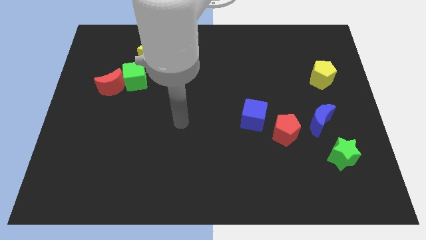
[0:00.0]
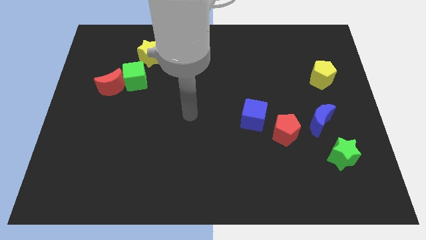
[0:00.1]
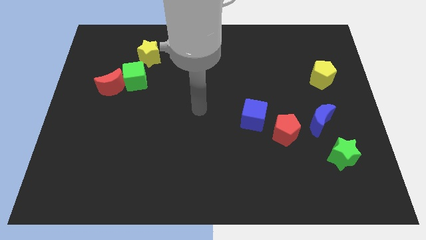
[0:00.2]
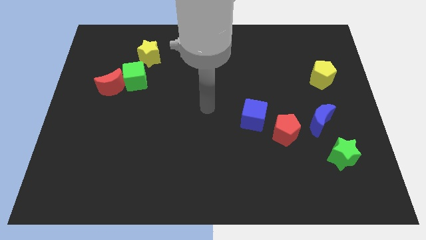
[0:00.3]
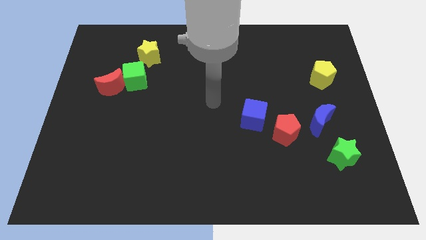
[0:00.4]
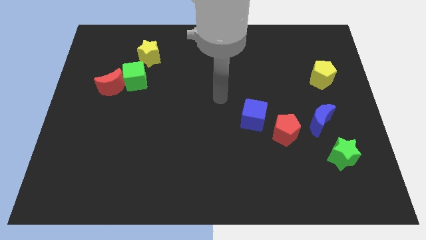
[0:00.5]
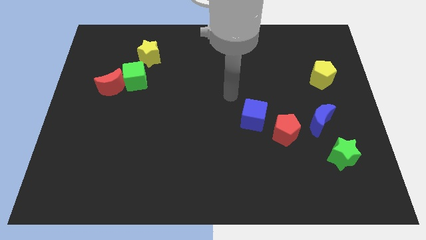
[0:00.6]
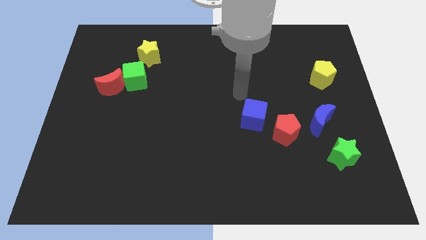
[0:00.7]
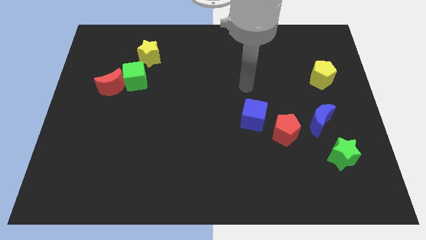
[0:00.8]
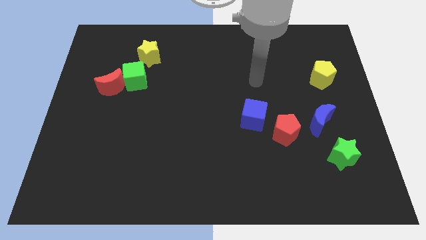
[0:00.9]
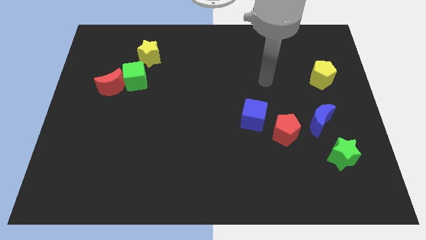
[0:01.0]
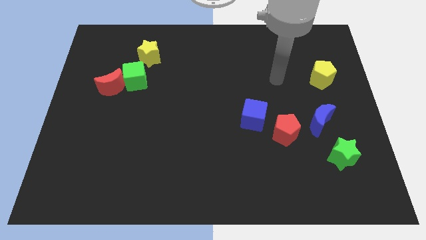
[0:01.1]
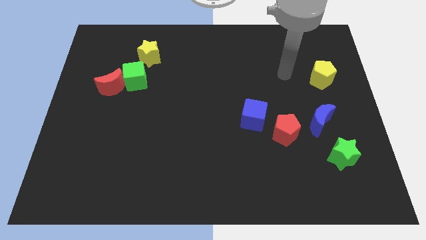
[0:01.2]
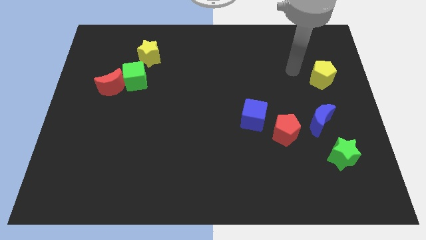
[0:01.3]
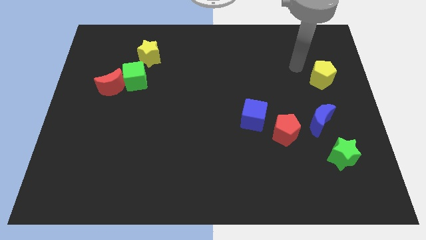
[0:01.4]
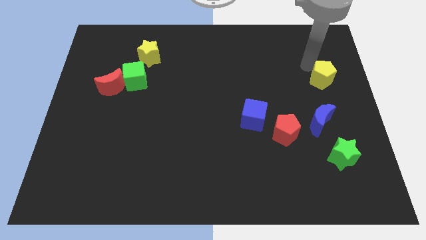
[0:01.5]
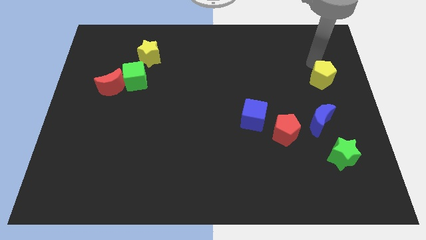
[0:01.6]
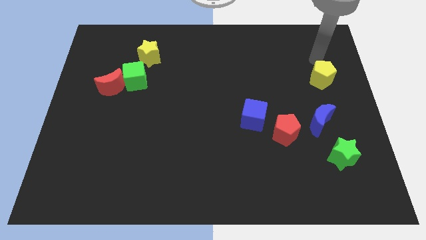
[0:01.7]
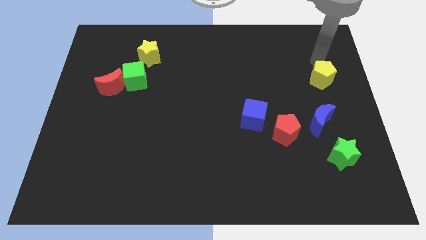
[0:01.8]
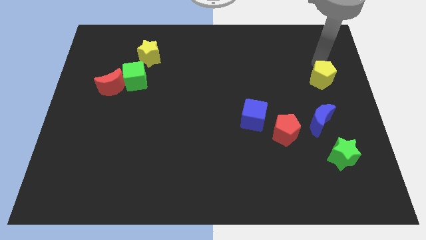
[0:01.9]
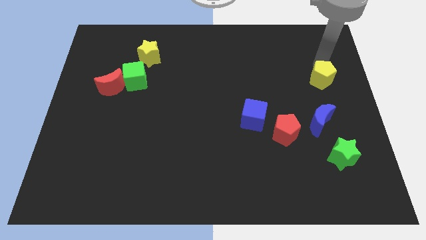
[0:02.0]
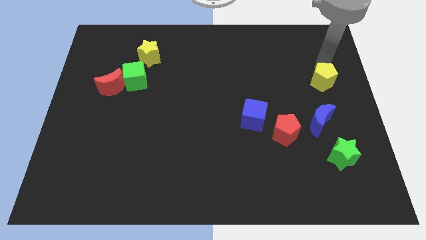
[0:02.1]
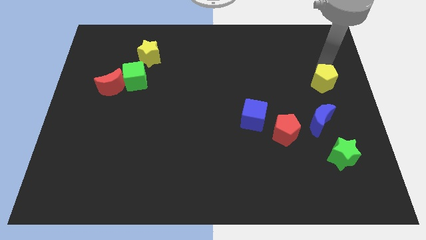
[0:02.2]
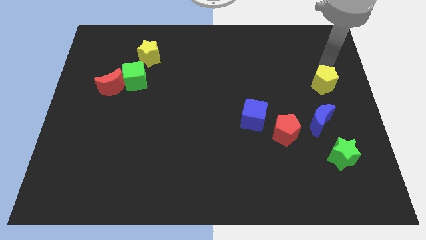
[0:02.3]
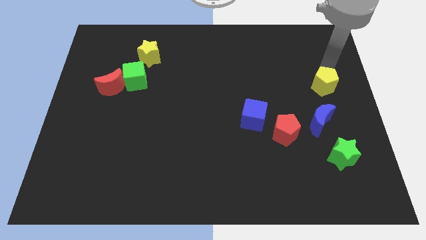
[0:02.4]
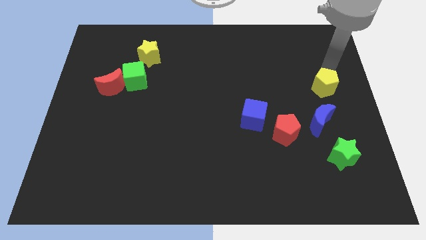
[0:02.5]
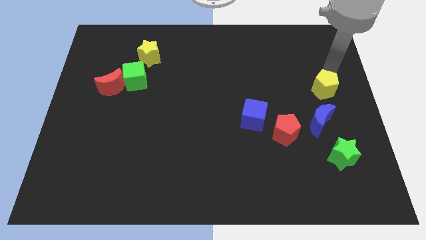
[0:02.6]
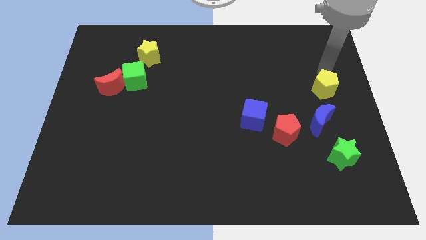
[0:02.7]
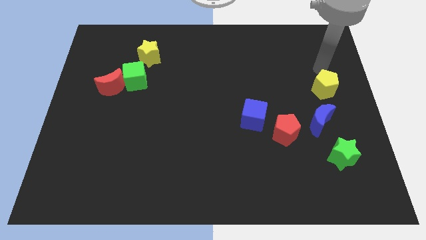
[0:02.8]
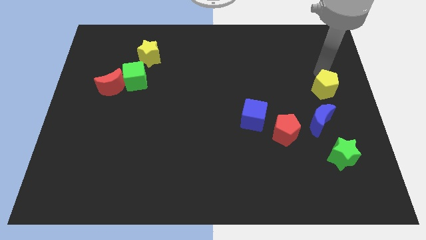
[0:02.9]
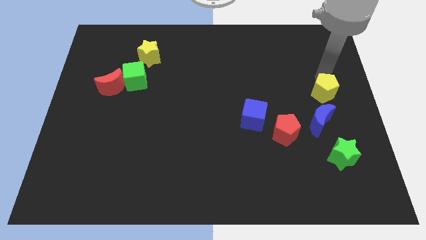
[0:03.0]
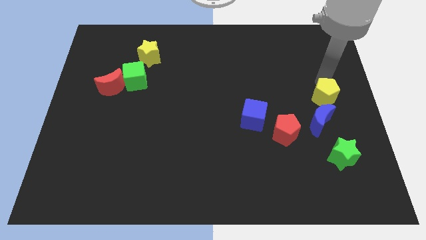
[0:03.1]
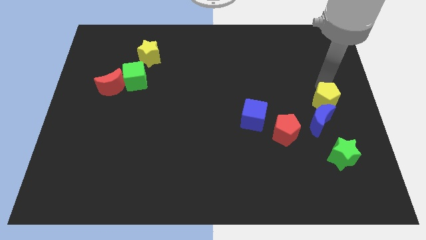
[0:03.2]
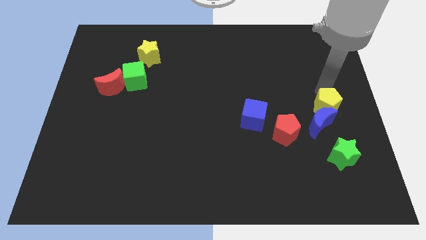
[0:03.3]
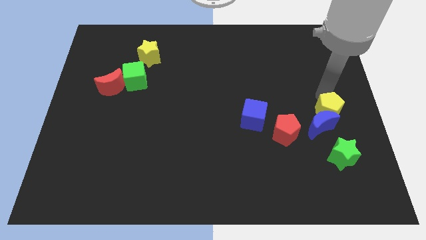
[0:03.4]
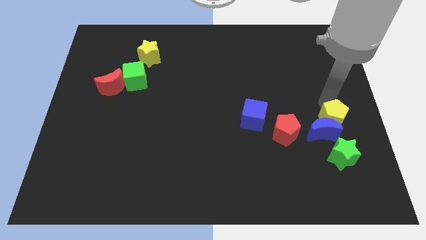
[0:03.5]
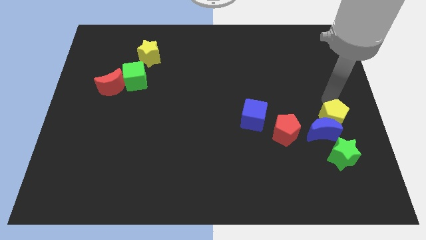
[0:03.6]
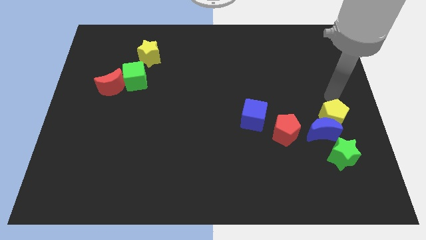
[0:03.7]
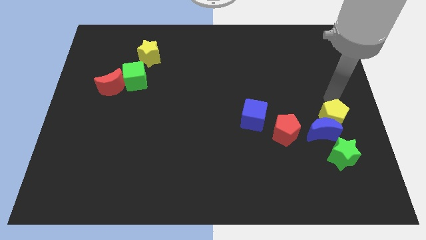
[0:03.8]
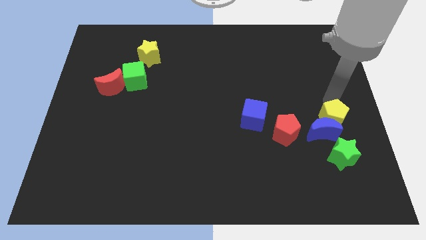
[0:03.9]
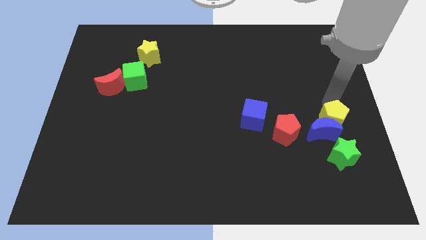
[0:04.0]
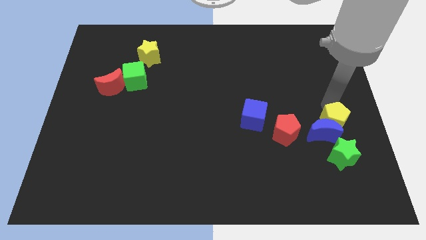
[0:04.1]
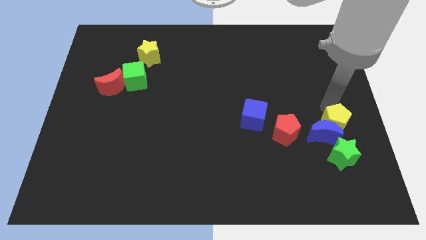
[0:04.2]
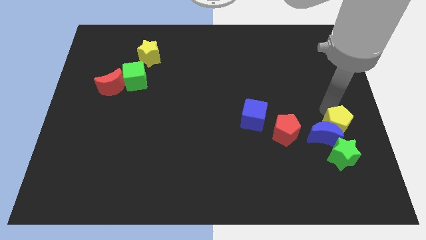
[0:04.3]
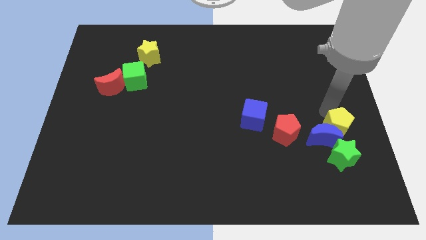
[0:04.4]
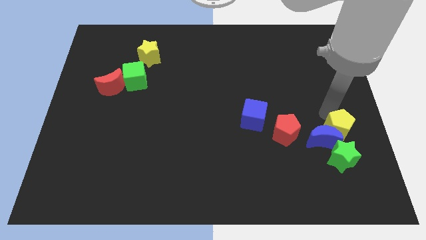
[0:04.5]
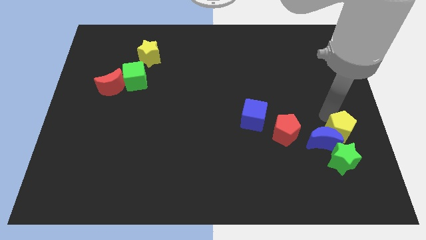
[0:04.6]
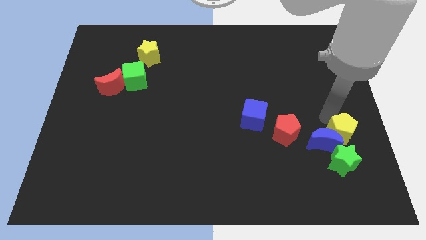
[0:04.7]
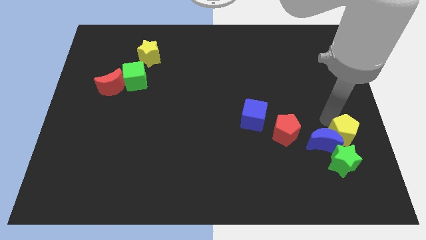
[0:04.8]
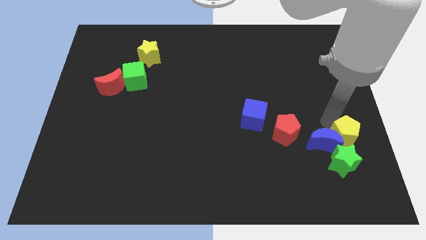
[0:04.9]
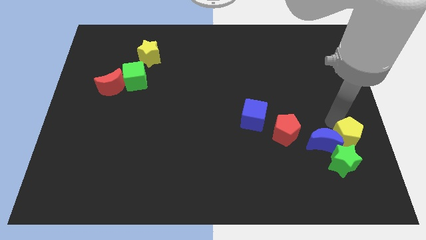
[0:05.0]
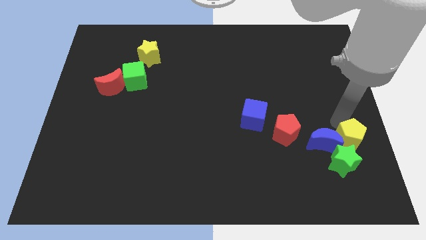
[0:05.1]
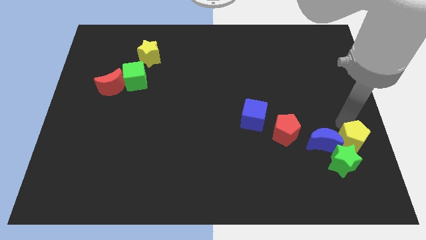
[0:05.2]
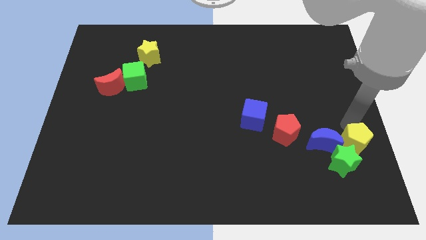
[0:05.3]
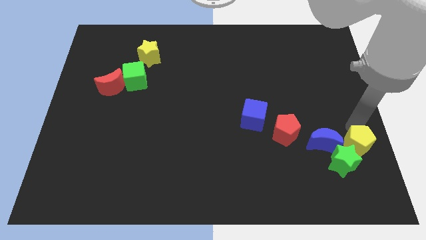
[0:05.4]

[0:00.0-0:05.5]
move the yellow pentagon towards the green star

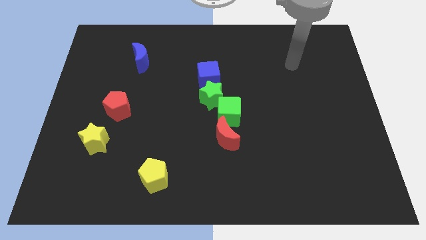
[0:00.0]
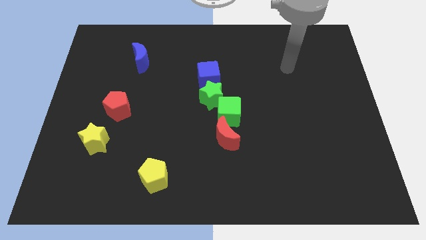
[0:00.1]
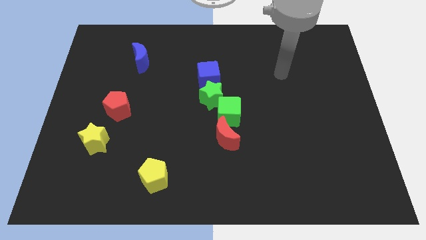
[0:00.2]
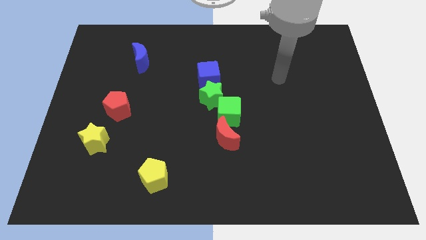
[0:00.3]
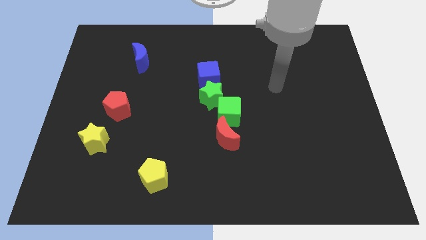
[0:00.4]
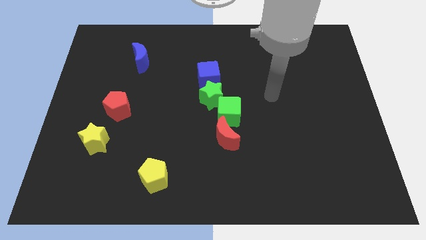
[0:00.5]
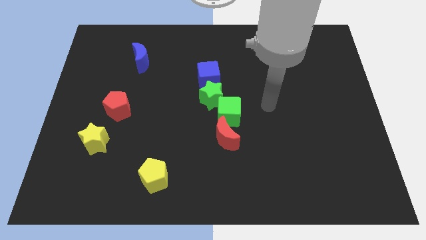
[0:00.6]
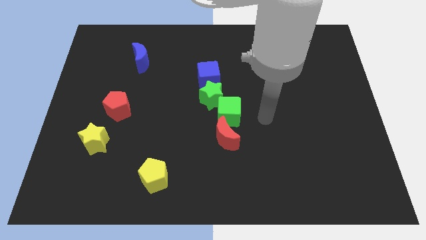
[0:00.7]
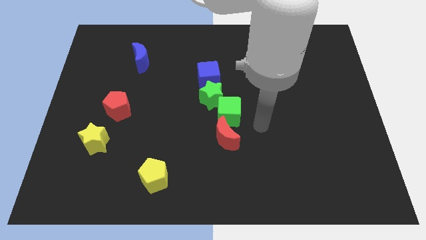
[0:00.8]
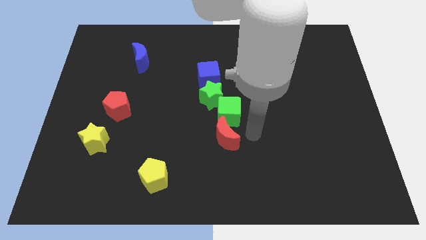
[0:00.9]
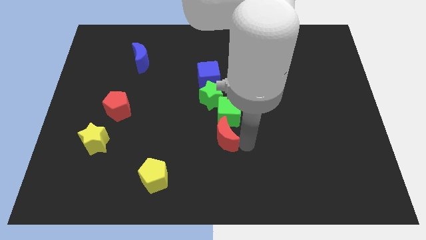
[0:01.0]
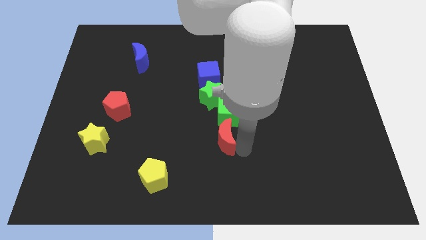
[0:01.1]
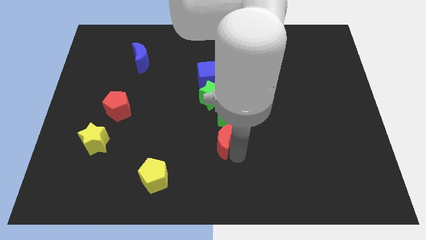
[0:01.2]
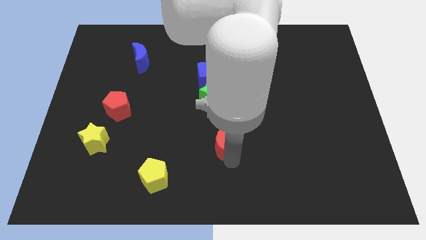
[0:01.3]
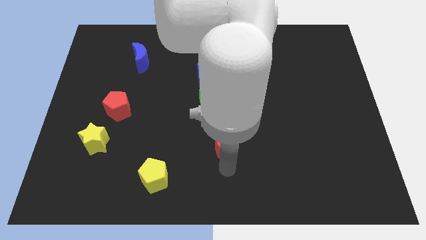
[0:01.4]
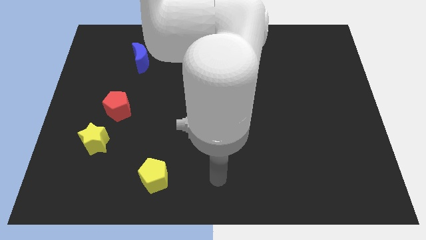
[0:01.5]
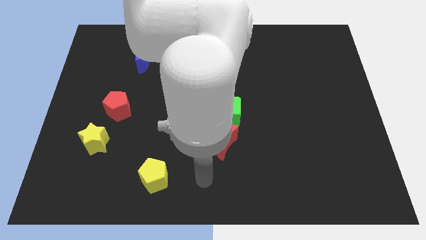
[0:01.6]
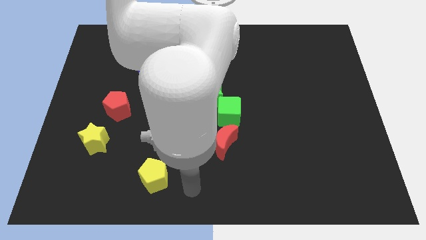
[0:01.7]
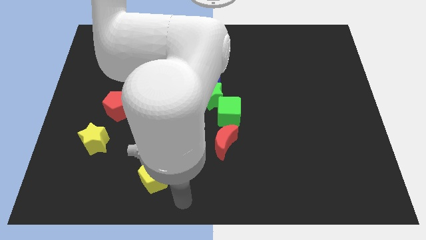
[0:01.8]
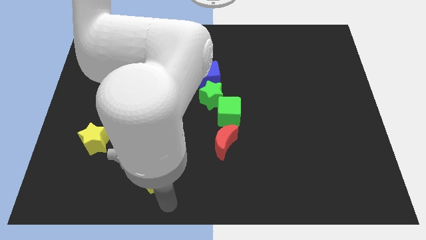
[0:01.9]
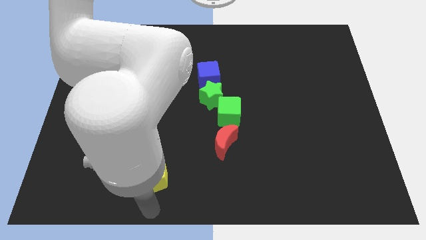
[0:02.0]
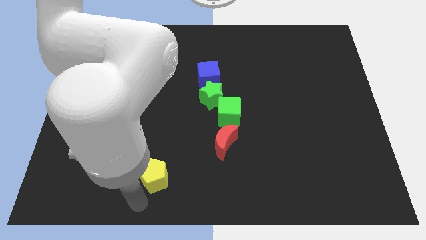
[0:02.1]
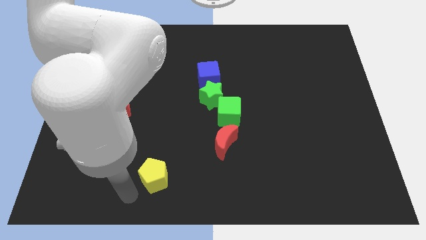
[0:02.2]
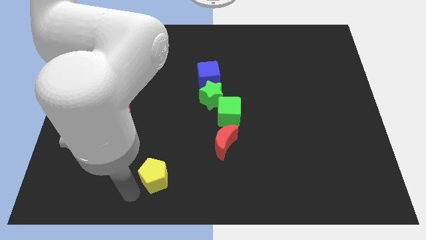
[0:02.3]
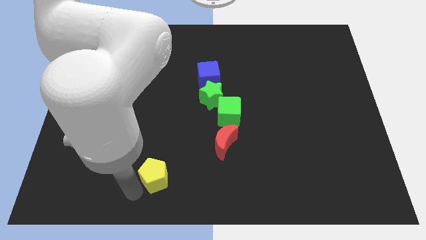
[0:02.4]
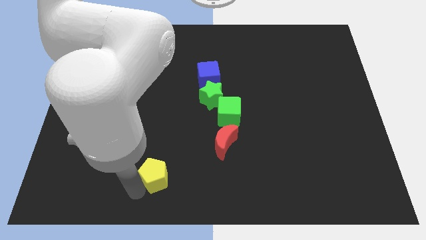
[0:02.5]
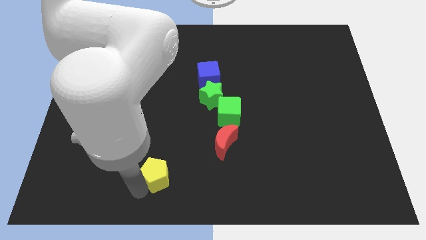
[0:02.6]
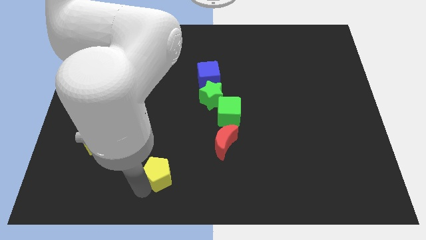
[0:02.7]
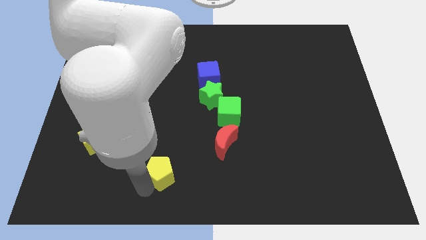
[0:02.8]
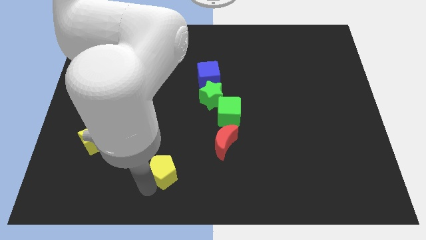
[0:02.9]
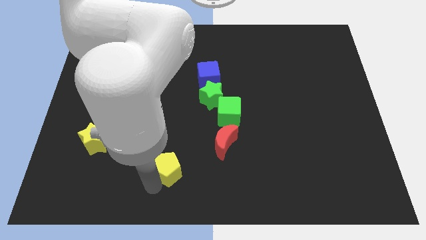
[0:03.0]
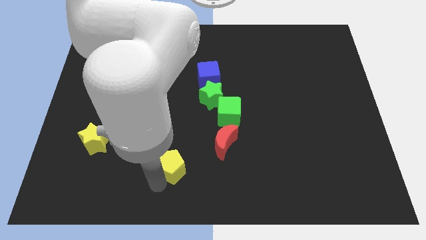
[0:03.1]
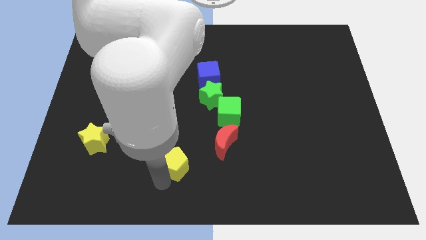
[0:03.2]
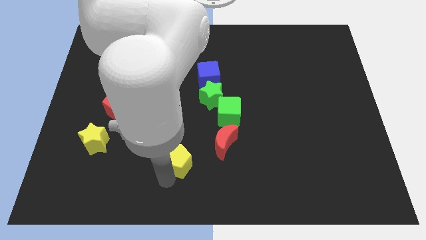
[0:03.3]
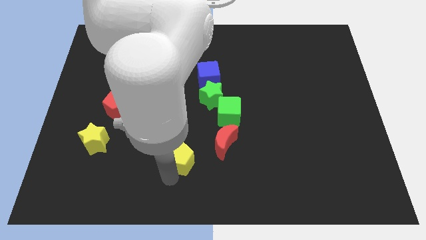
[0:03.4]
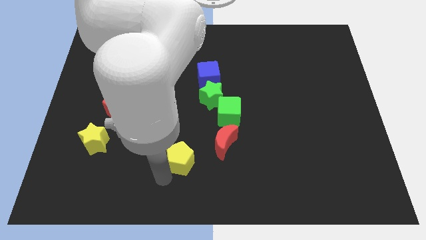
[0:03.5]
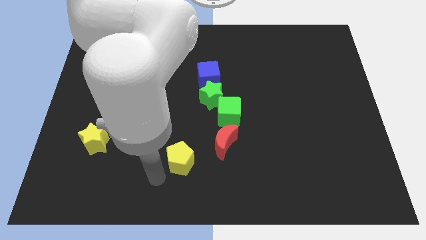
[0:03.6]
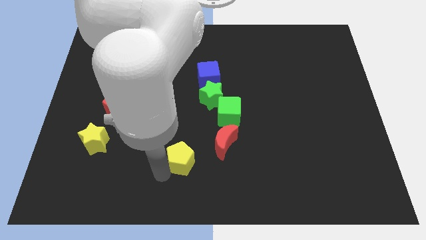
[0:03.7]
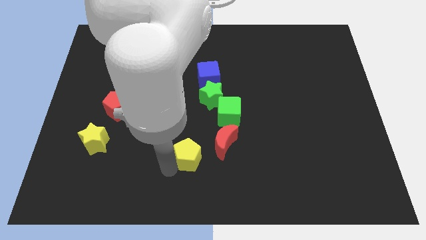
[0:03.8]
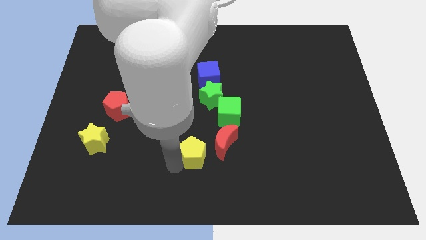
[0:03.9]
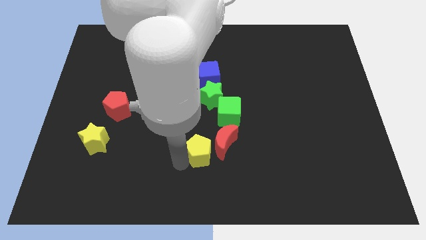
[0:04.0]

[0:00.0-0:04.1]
put the yellow pentagon to the red moon
